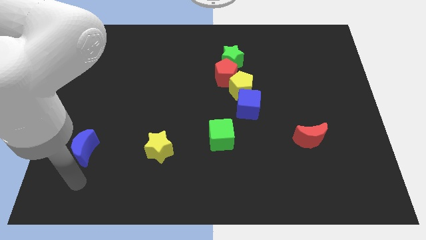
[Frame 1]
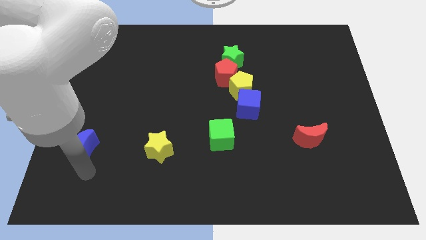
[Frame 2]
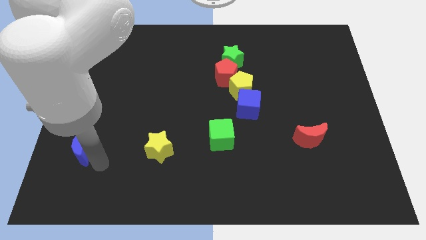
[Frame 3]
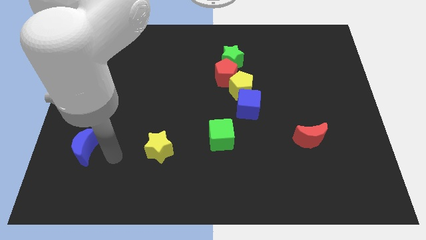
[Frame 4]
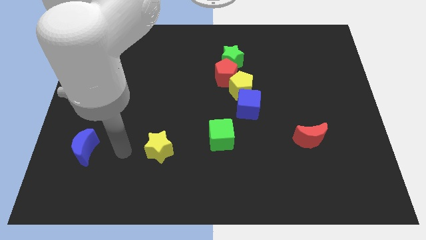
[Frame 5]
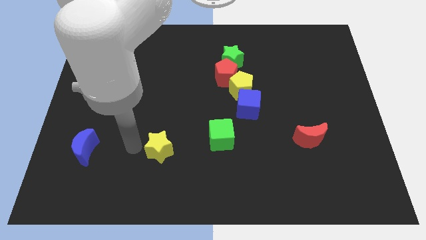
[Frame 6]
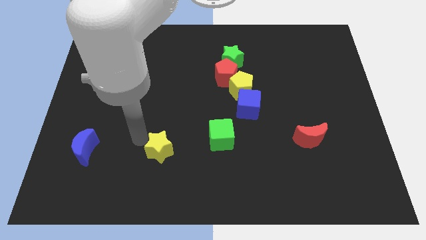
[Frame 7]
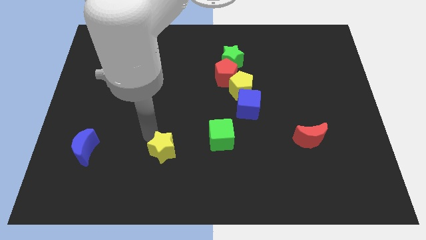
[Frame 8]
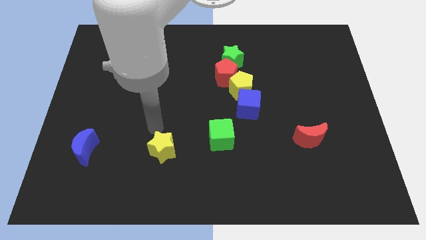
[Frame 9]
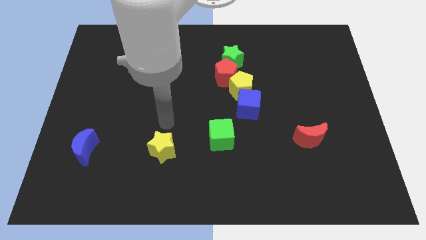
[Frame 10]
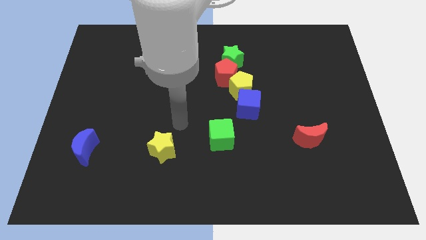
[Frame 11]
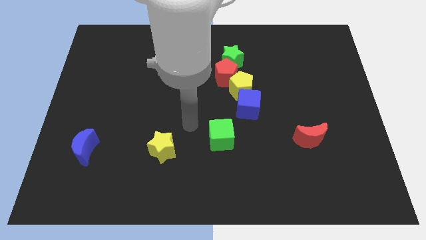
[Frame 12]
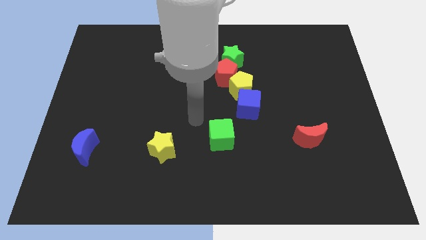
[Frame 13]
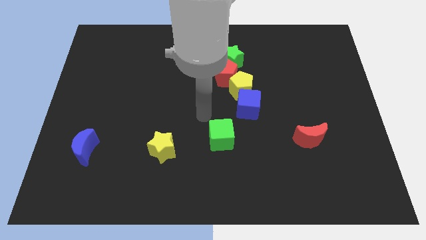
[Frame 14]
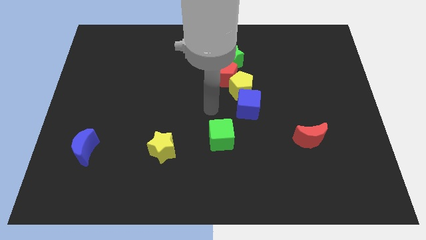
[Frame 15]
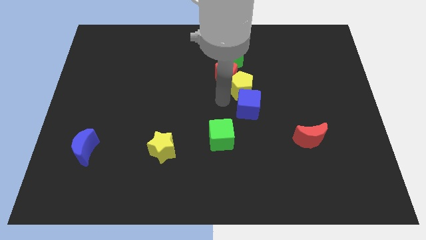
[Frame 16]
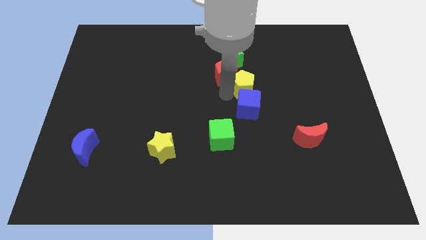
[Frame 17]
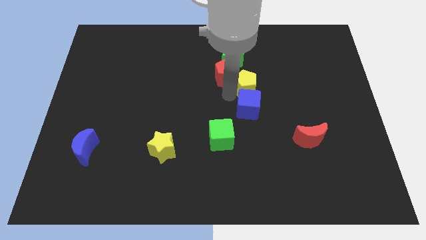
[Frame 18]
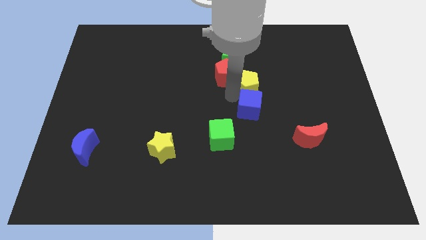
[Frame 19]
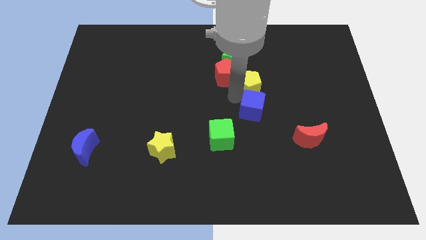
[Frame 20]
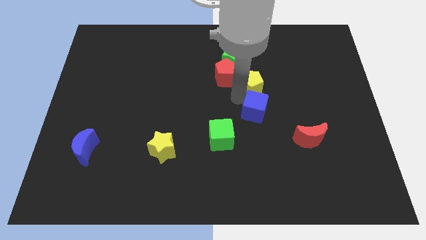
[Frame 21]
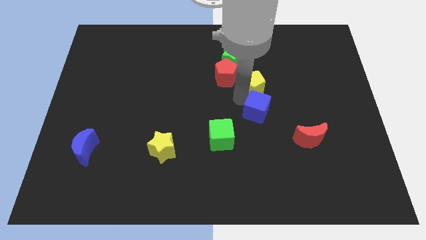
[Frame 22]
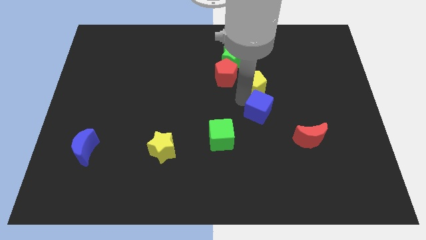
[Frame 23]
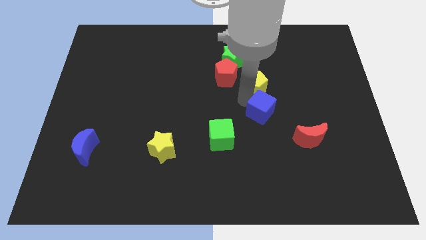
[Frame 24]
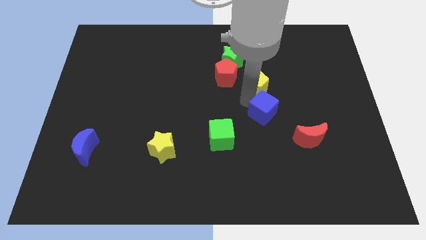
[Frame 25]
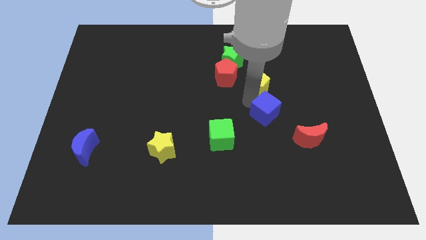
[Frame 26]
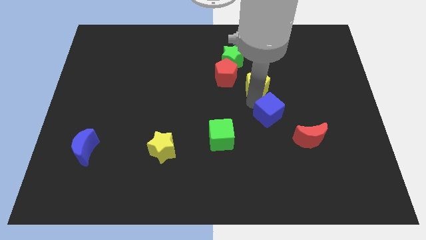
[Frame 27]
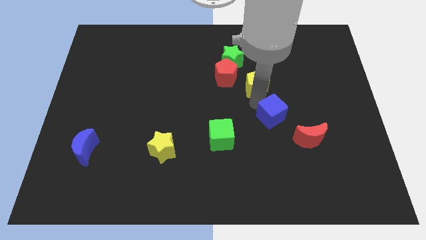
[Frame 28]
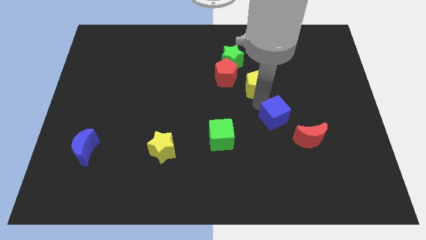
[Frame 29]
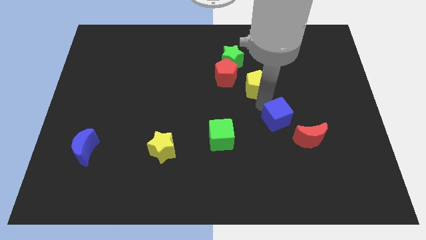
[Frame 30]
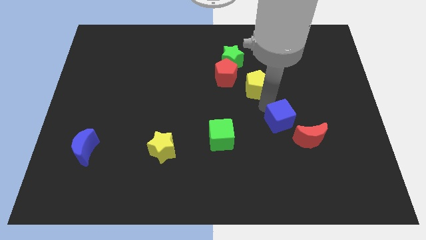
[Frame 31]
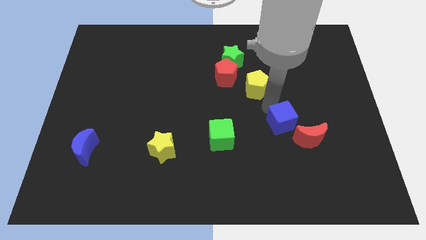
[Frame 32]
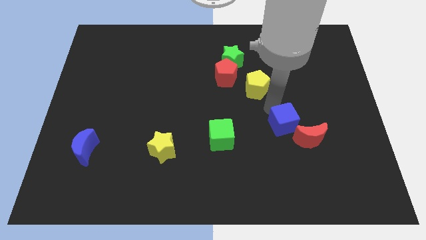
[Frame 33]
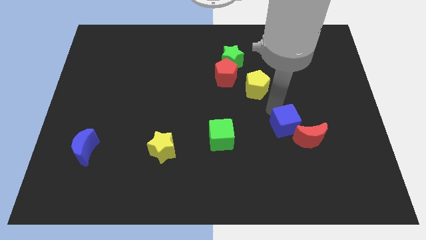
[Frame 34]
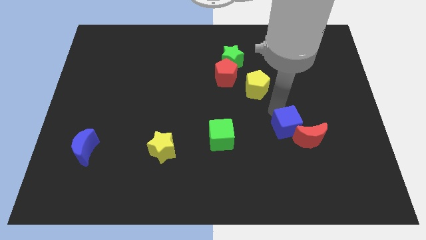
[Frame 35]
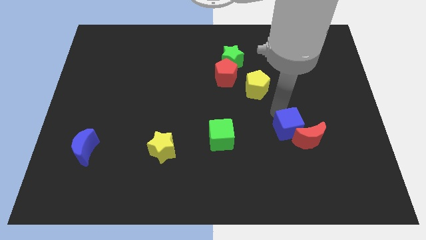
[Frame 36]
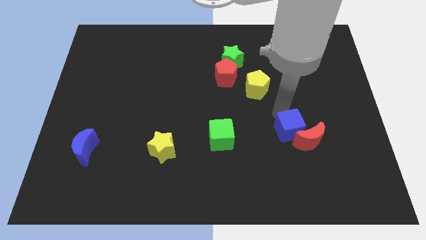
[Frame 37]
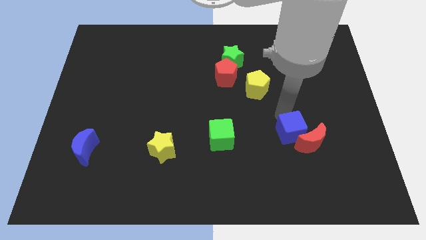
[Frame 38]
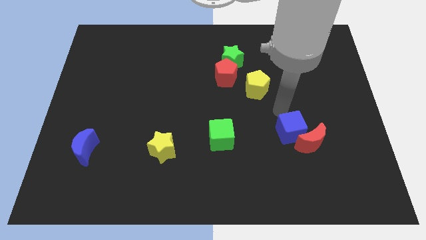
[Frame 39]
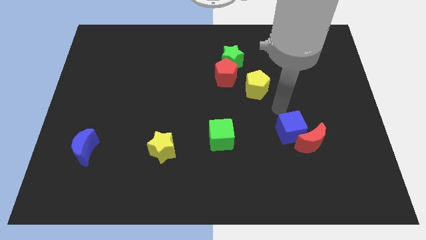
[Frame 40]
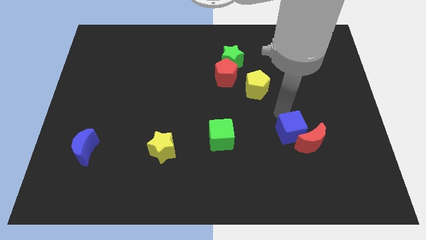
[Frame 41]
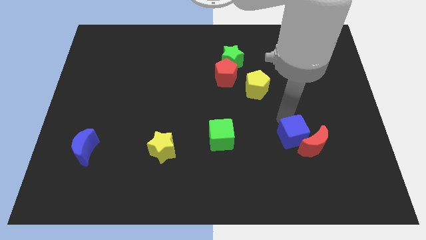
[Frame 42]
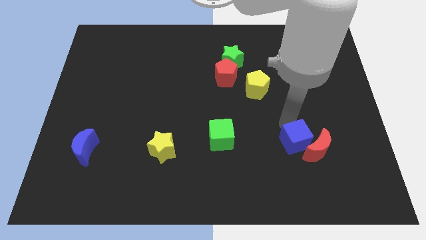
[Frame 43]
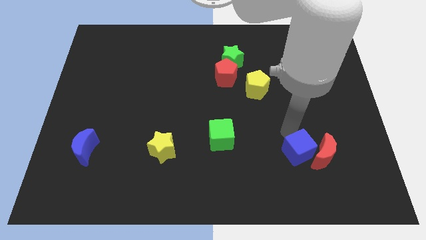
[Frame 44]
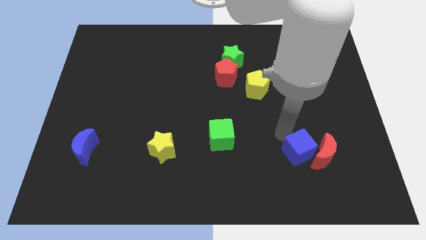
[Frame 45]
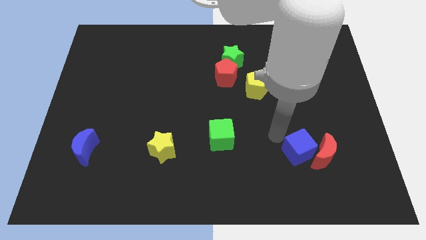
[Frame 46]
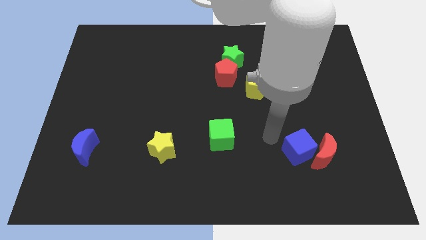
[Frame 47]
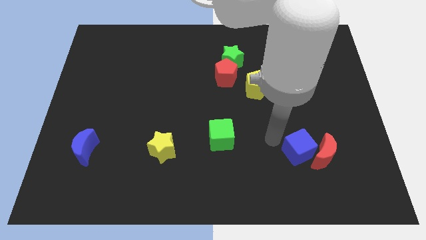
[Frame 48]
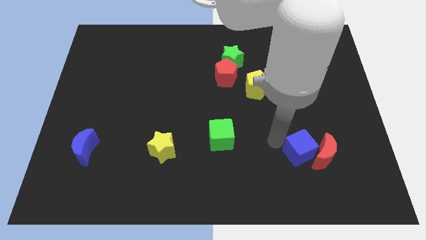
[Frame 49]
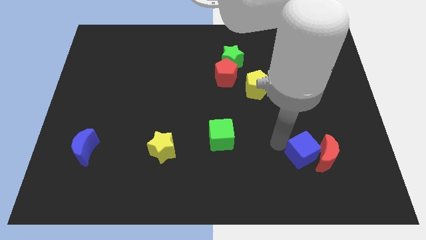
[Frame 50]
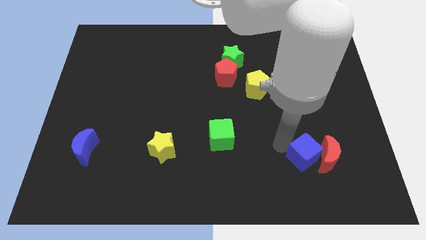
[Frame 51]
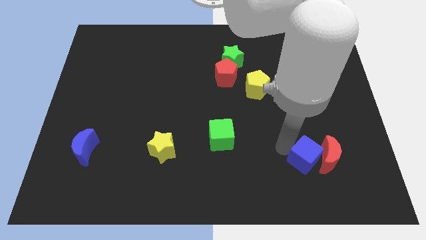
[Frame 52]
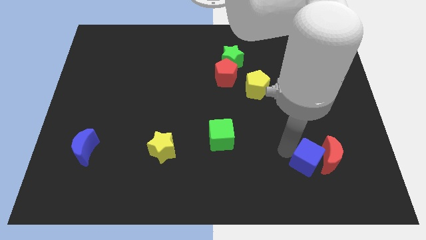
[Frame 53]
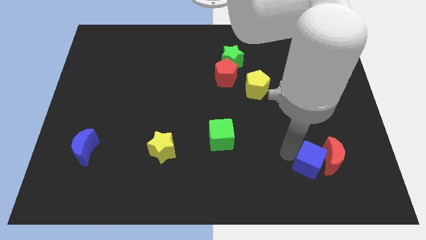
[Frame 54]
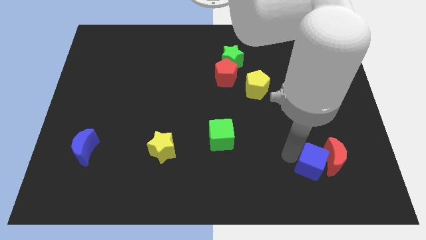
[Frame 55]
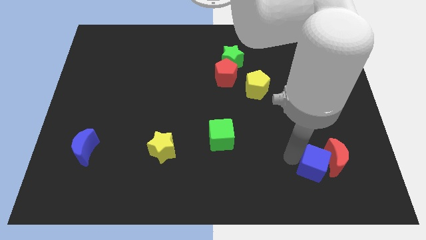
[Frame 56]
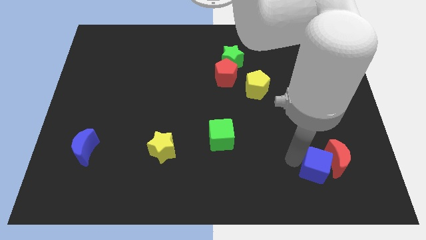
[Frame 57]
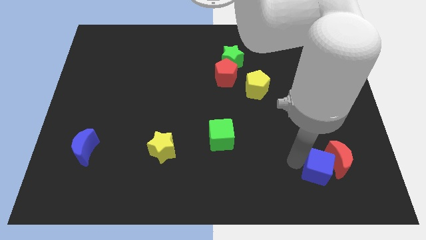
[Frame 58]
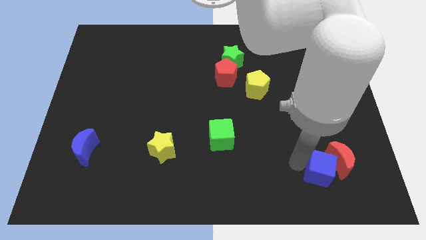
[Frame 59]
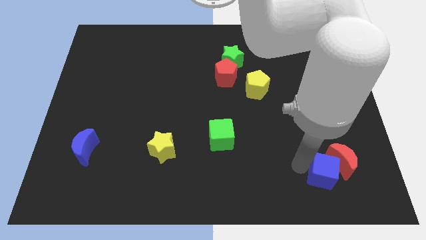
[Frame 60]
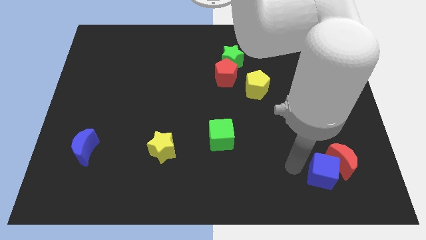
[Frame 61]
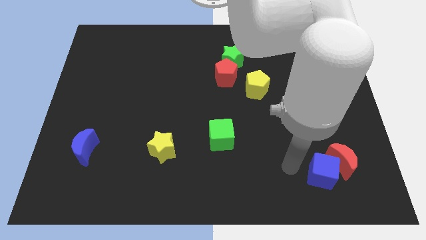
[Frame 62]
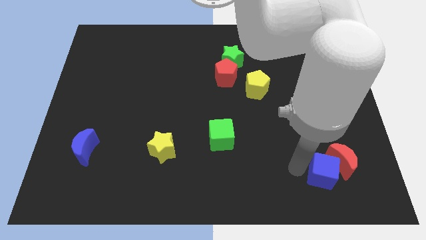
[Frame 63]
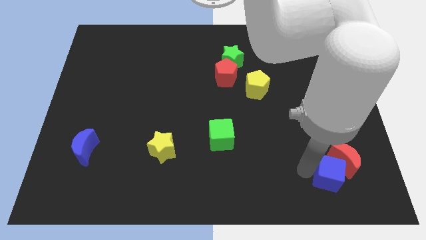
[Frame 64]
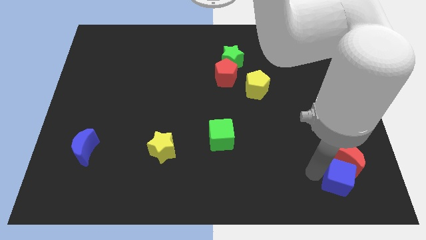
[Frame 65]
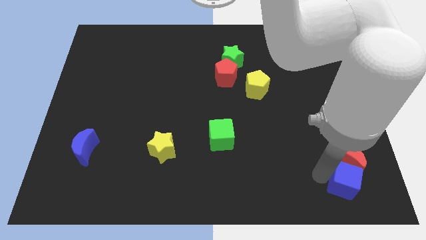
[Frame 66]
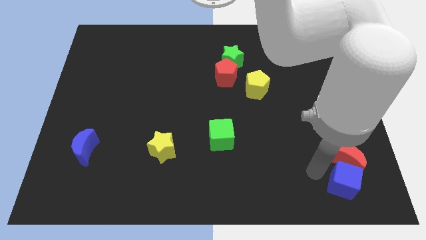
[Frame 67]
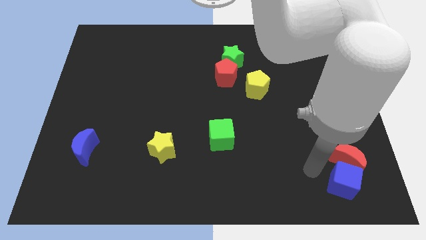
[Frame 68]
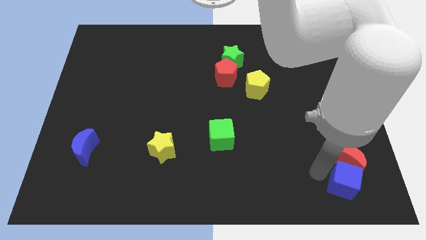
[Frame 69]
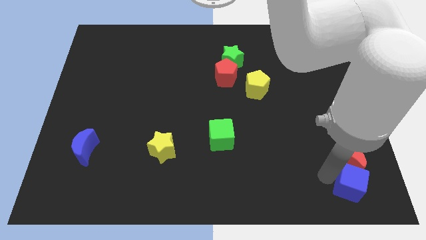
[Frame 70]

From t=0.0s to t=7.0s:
move the blue cube to the bottom right corner
